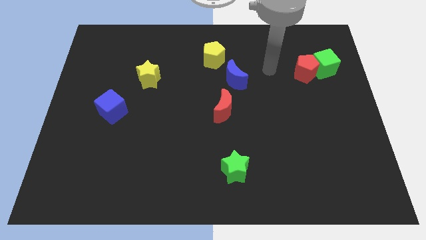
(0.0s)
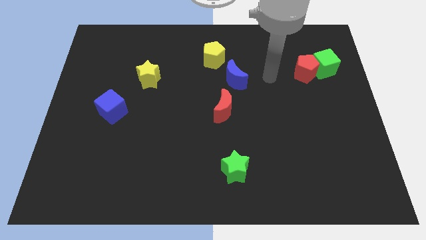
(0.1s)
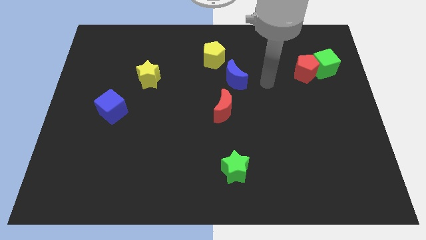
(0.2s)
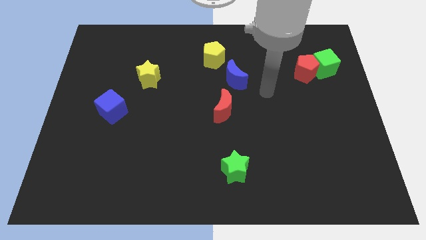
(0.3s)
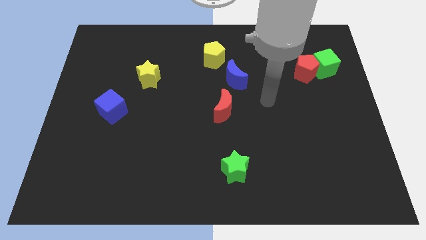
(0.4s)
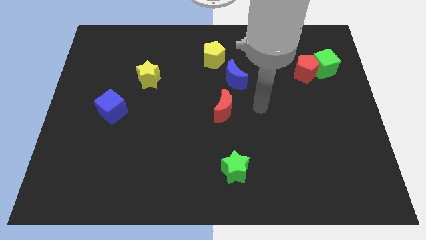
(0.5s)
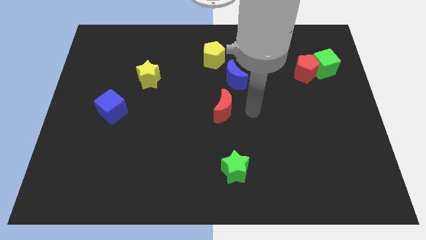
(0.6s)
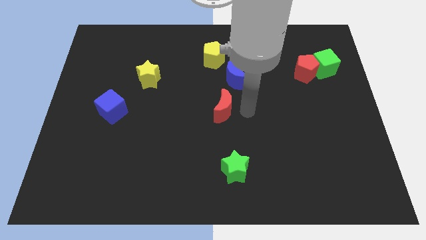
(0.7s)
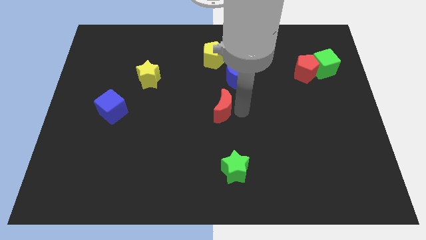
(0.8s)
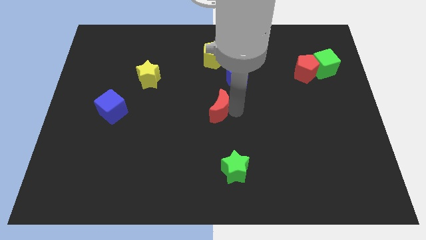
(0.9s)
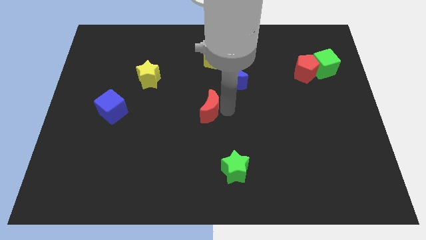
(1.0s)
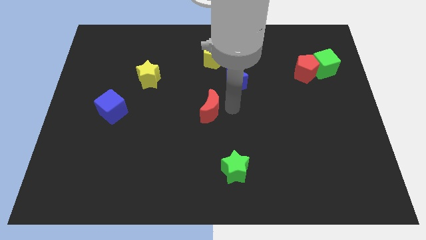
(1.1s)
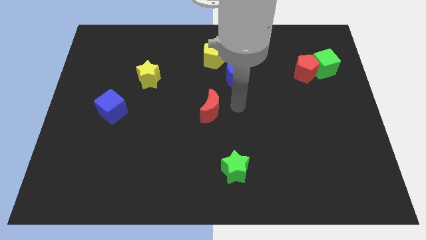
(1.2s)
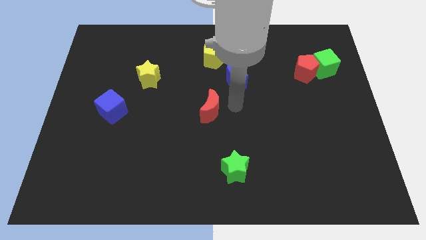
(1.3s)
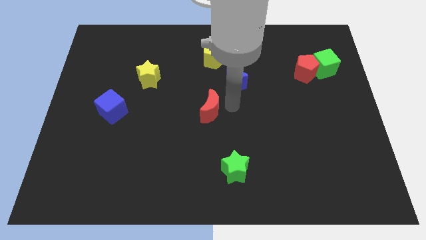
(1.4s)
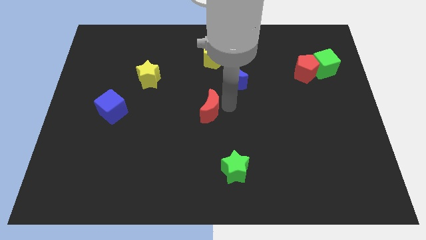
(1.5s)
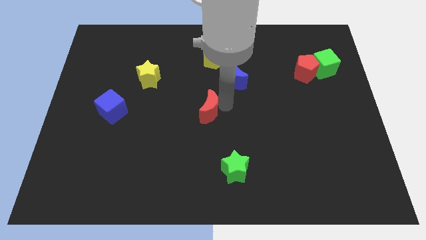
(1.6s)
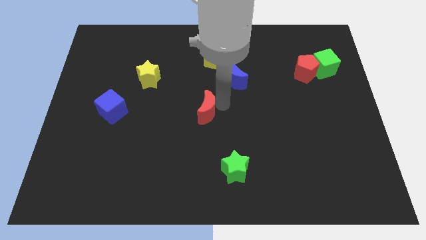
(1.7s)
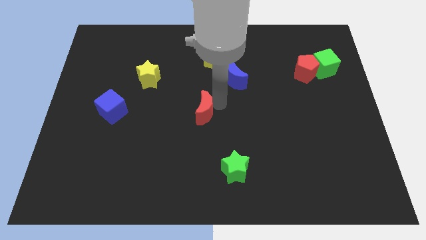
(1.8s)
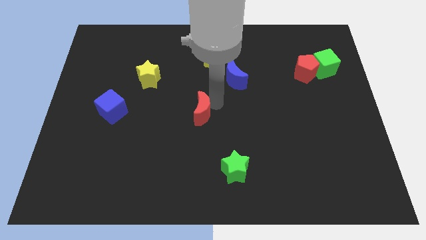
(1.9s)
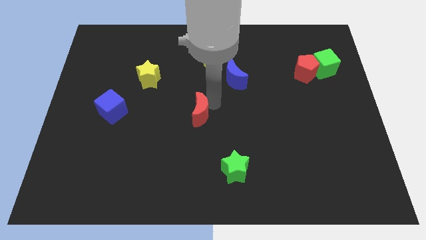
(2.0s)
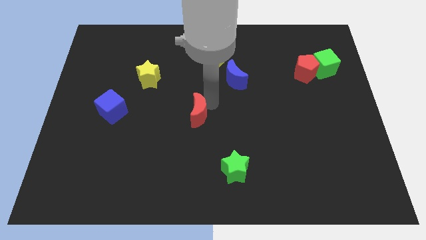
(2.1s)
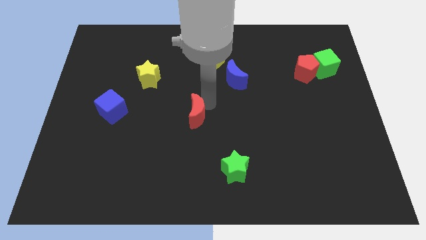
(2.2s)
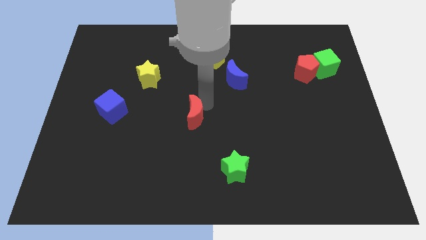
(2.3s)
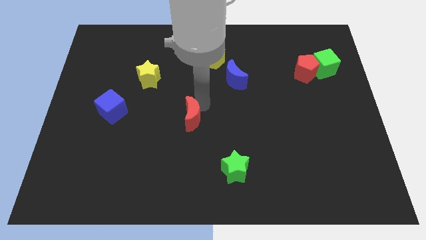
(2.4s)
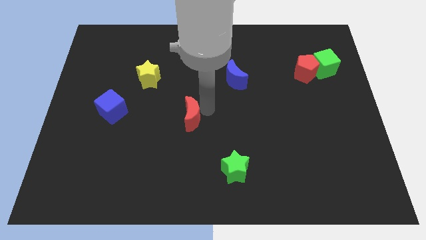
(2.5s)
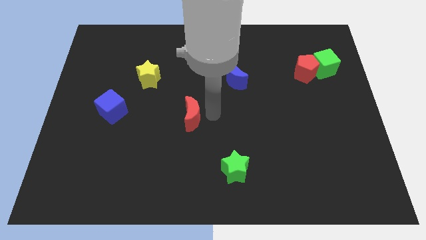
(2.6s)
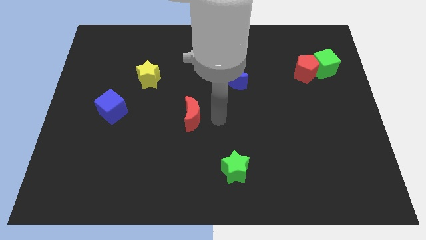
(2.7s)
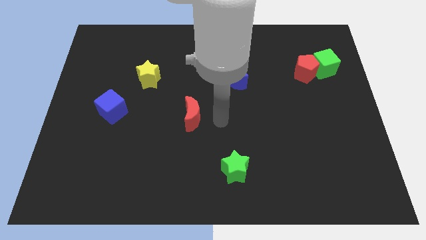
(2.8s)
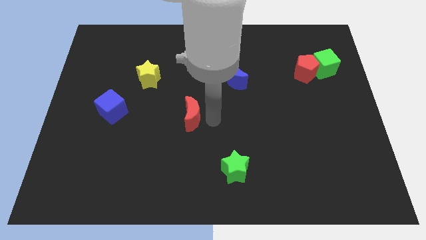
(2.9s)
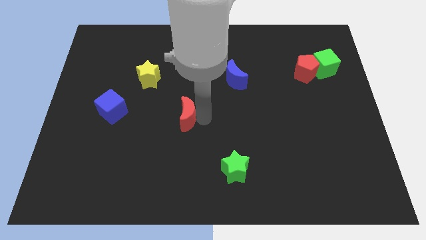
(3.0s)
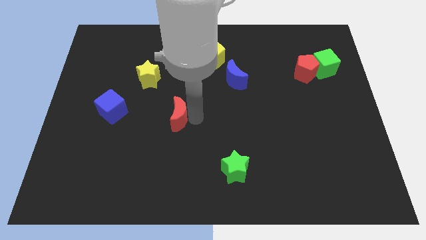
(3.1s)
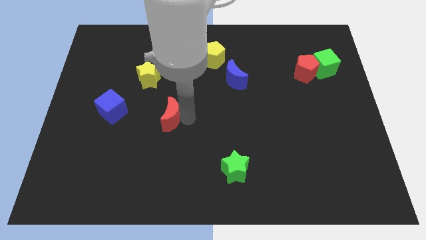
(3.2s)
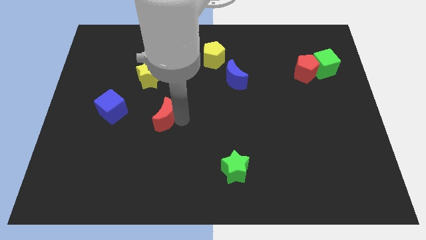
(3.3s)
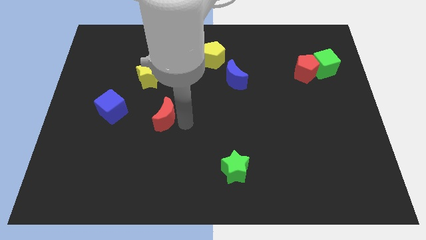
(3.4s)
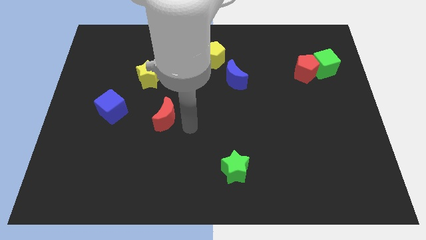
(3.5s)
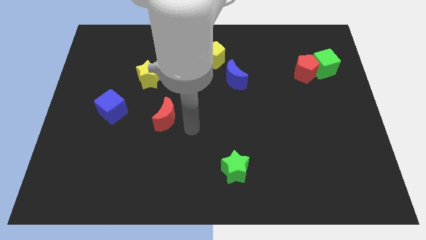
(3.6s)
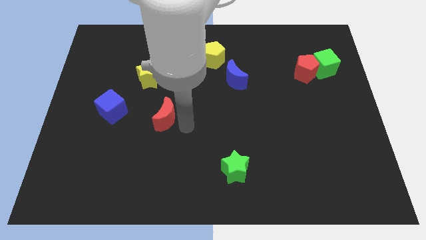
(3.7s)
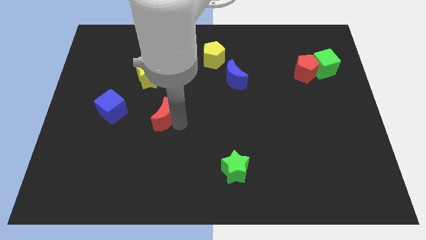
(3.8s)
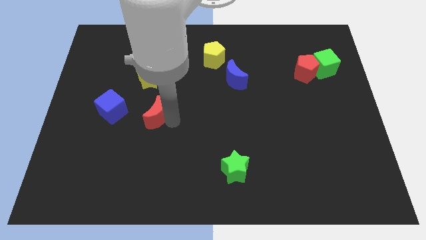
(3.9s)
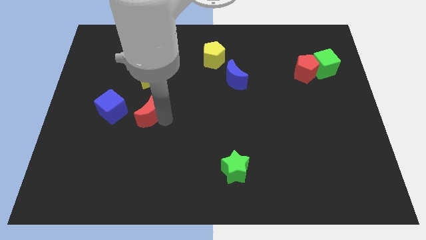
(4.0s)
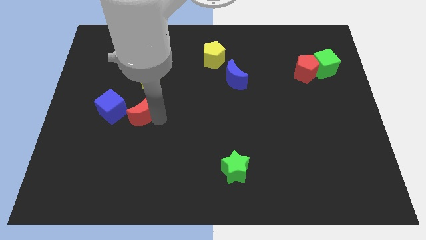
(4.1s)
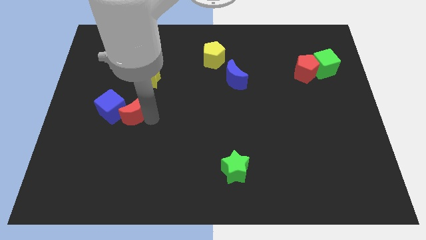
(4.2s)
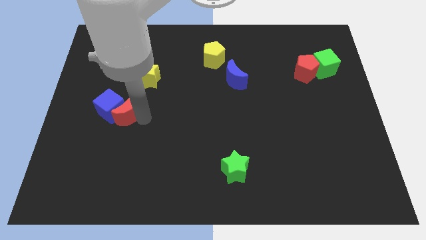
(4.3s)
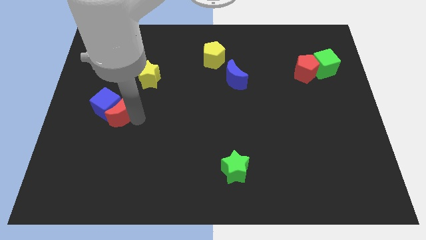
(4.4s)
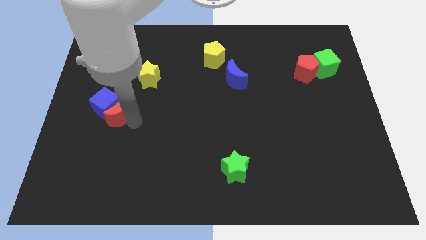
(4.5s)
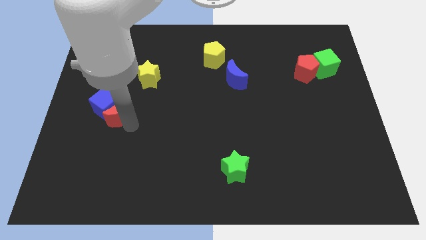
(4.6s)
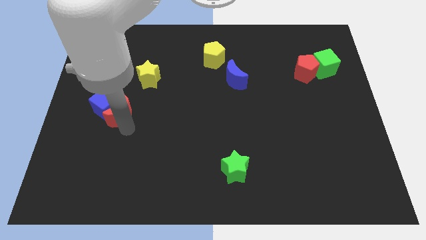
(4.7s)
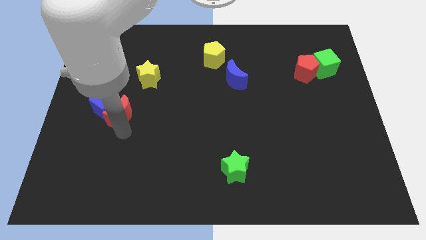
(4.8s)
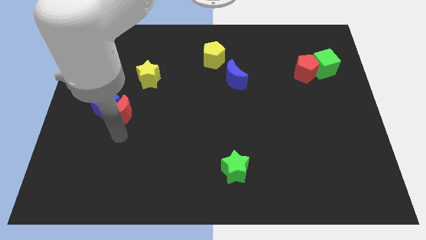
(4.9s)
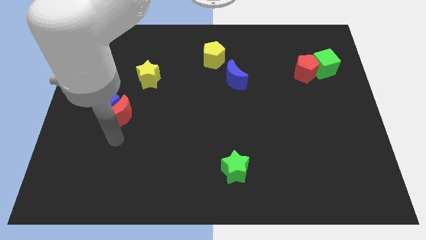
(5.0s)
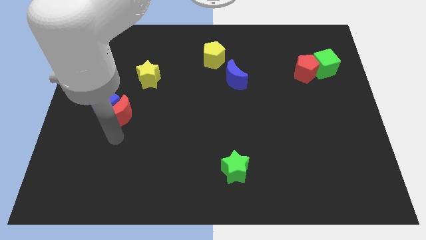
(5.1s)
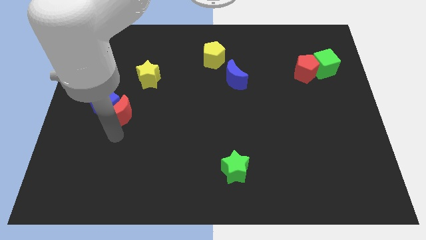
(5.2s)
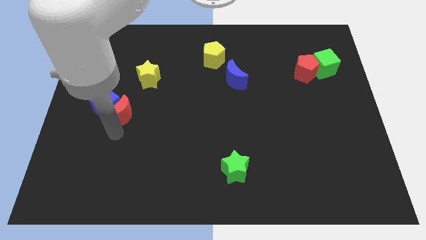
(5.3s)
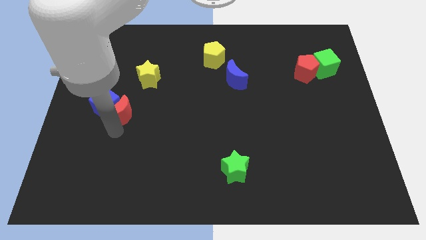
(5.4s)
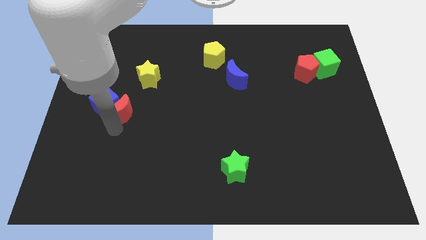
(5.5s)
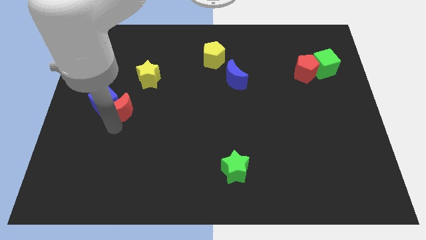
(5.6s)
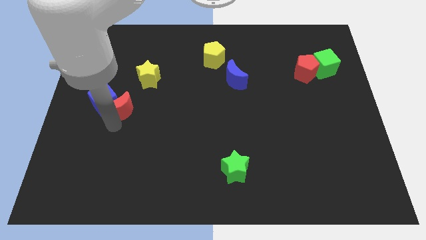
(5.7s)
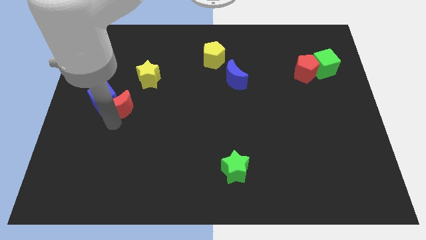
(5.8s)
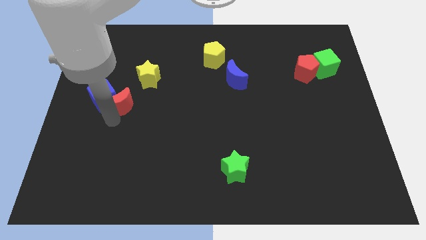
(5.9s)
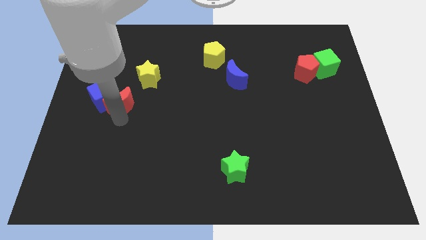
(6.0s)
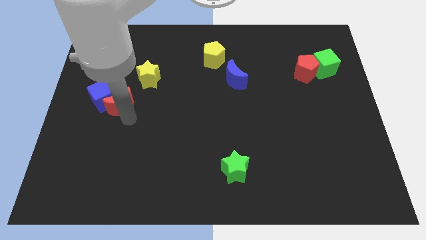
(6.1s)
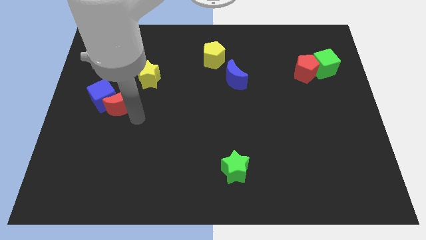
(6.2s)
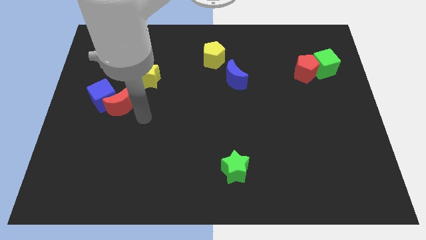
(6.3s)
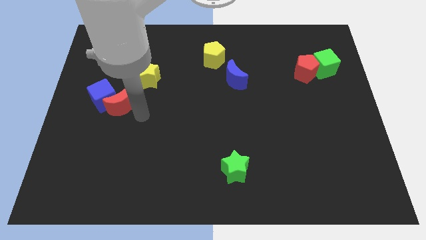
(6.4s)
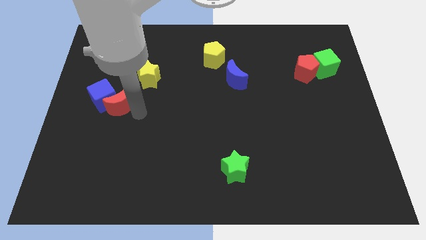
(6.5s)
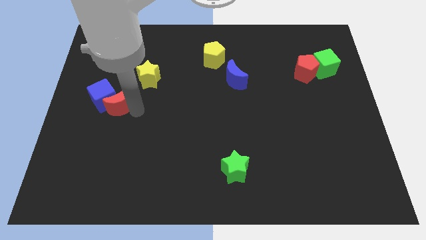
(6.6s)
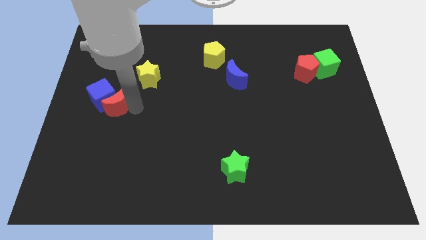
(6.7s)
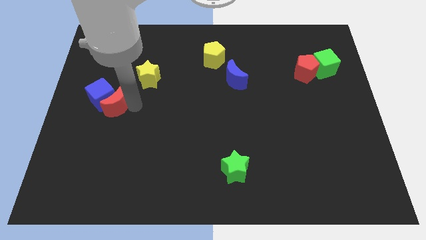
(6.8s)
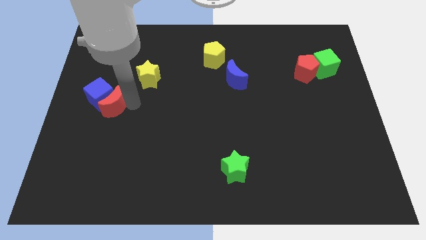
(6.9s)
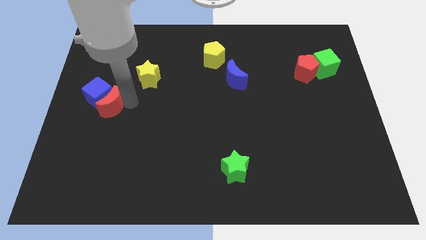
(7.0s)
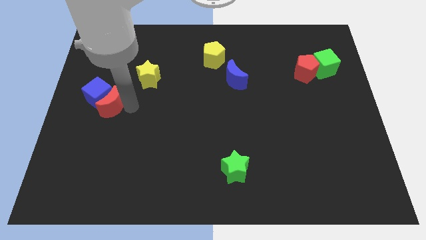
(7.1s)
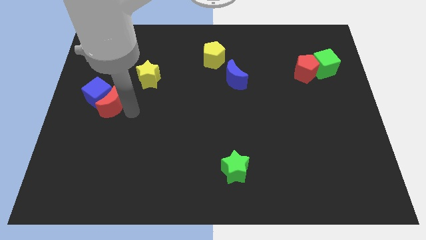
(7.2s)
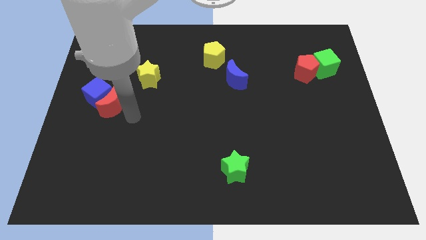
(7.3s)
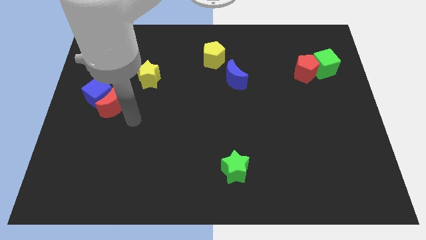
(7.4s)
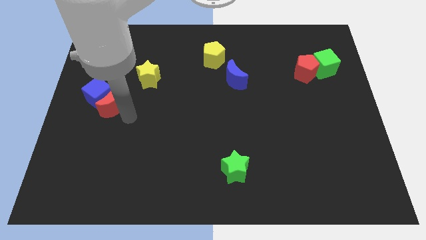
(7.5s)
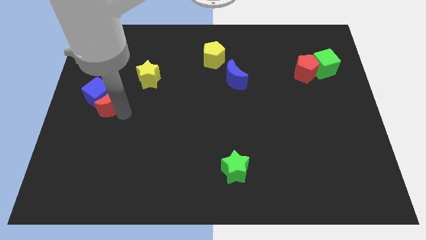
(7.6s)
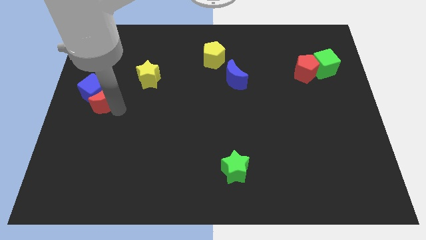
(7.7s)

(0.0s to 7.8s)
put the red moon to the left side
